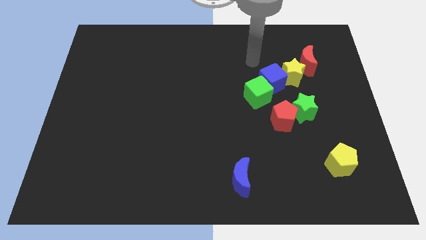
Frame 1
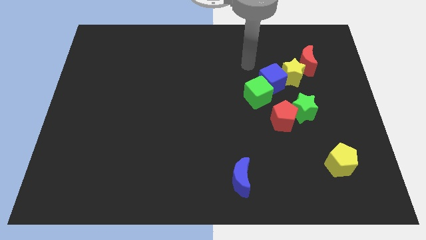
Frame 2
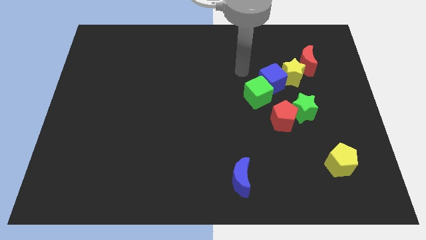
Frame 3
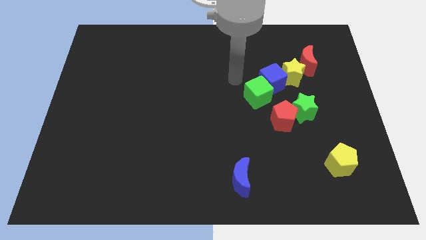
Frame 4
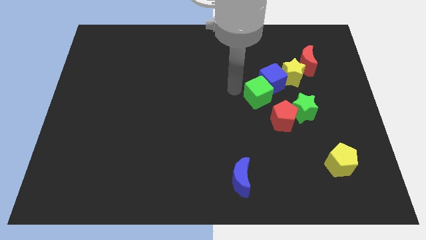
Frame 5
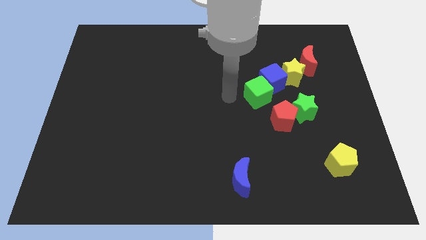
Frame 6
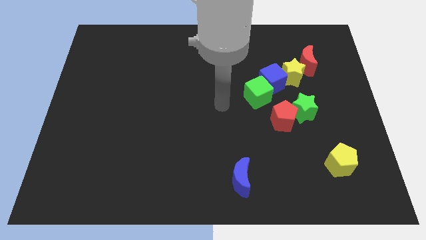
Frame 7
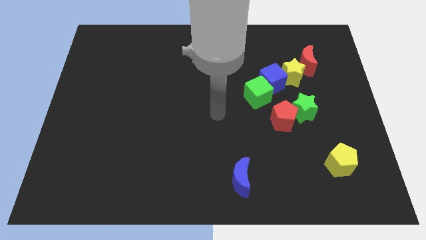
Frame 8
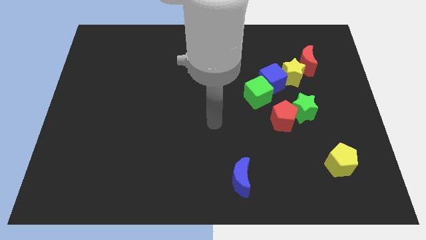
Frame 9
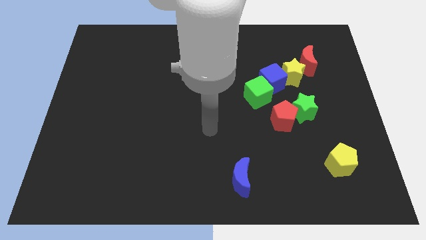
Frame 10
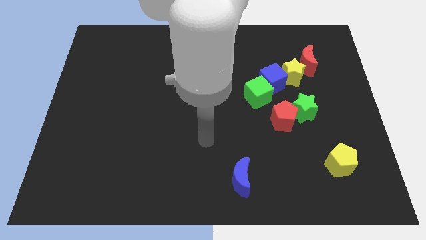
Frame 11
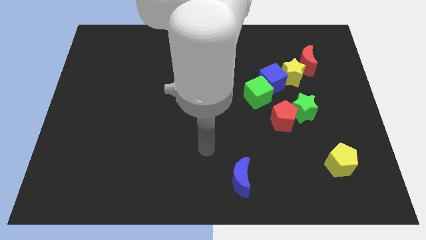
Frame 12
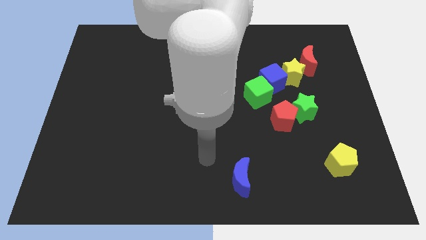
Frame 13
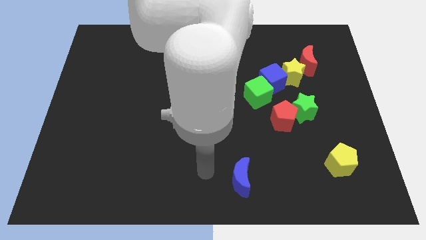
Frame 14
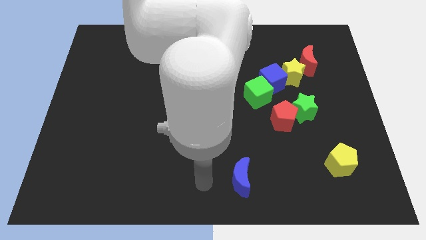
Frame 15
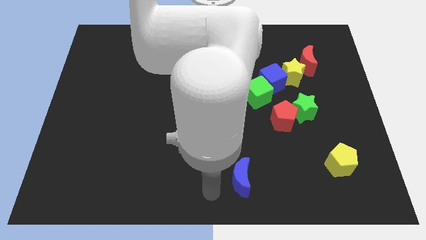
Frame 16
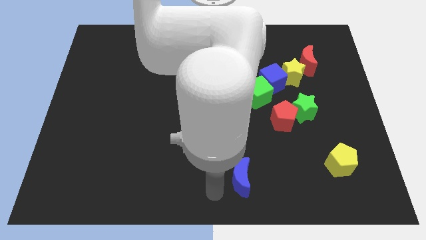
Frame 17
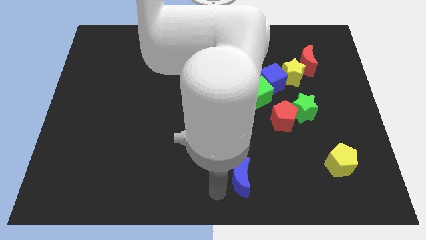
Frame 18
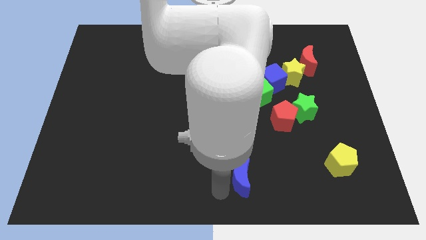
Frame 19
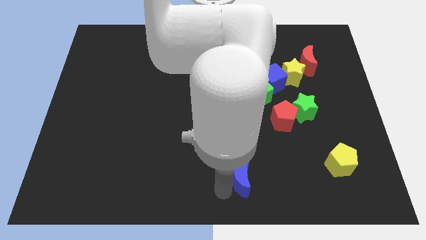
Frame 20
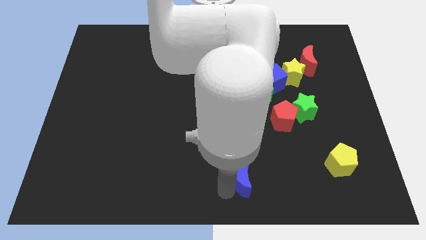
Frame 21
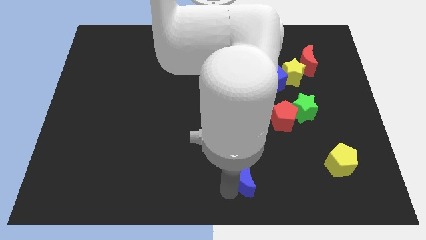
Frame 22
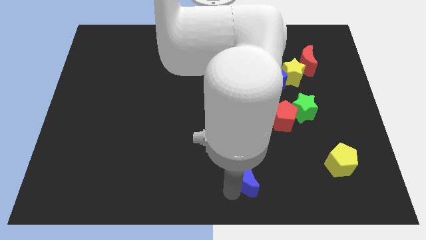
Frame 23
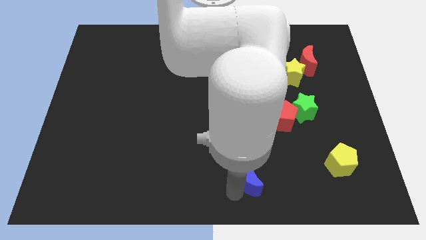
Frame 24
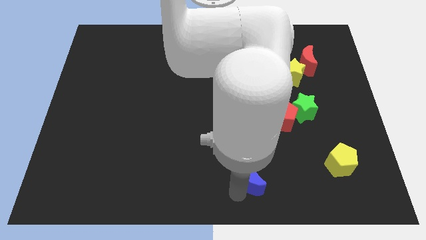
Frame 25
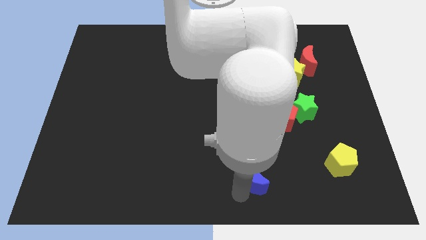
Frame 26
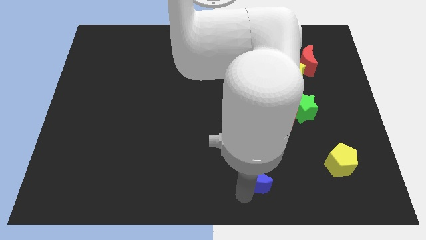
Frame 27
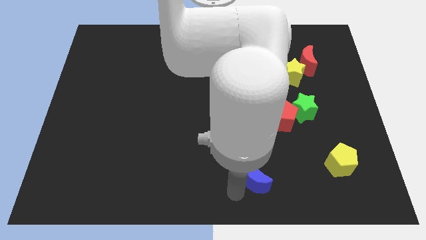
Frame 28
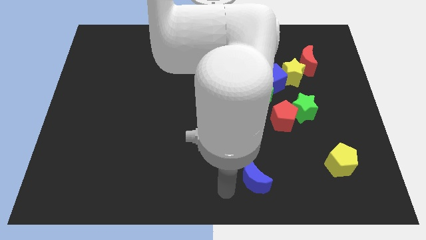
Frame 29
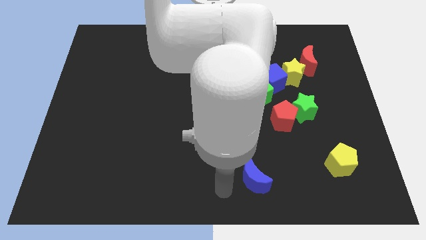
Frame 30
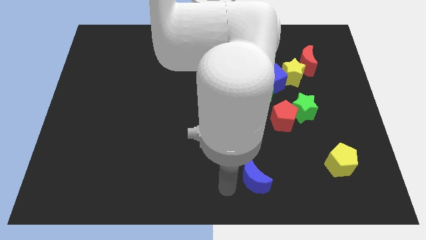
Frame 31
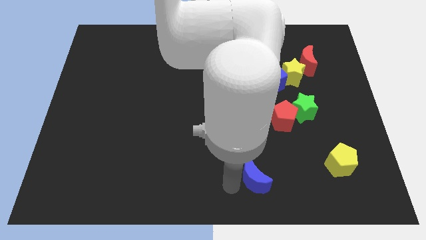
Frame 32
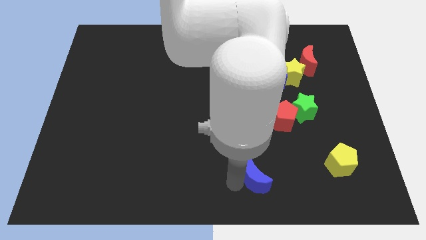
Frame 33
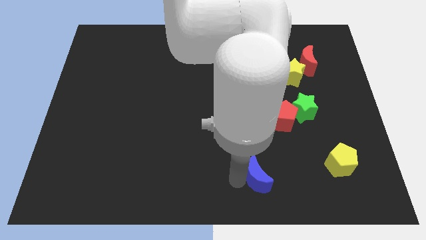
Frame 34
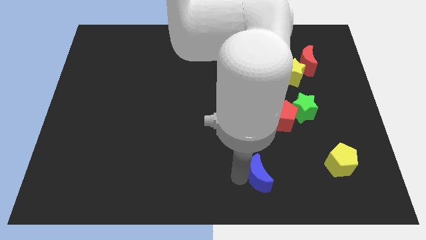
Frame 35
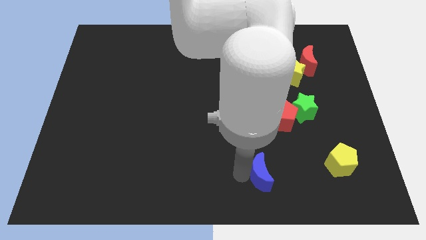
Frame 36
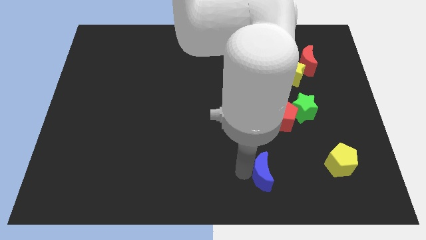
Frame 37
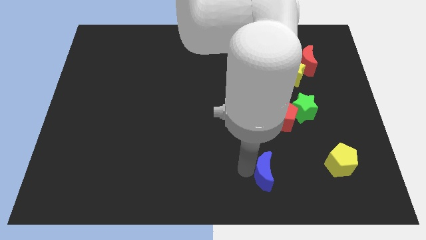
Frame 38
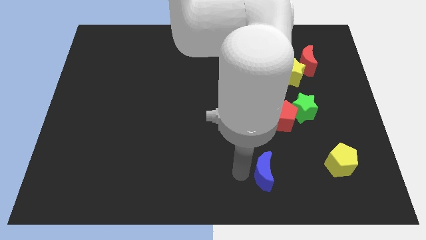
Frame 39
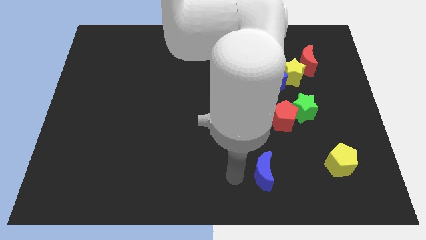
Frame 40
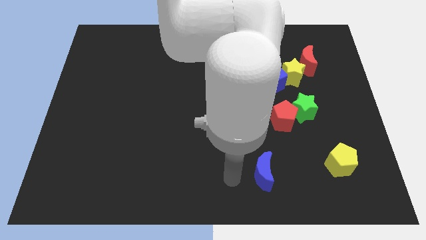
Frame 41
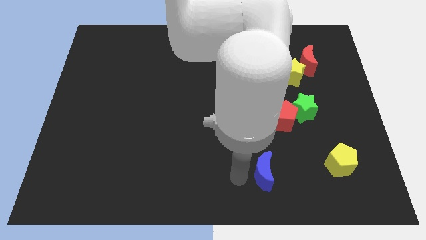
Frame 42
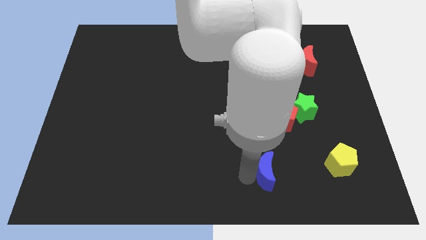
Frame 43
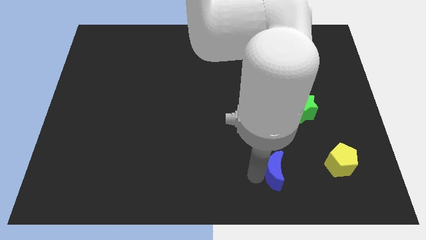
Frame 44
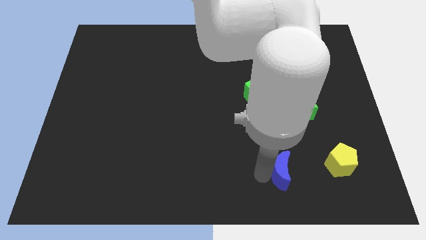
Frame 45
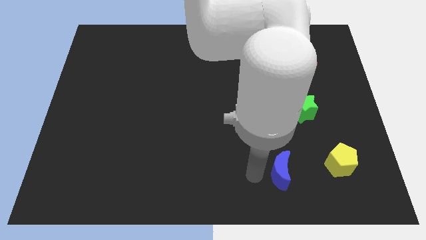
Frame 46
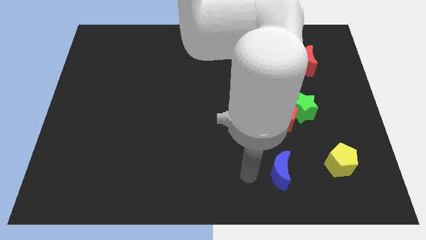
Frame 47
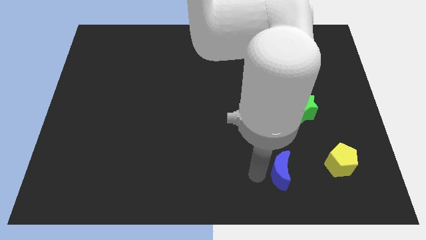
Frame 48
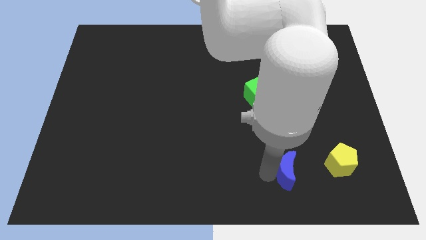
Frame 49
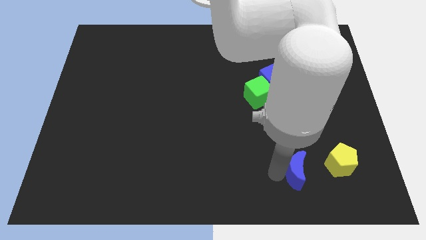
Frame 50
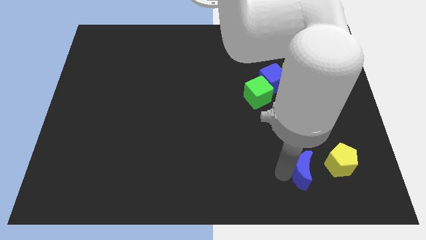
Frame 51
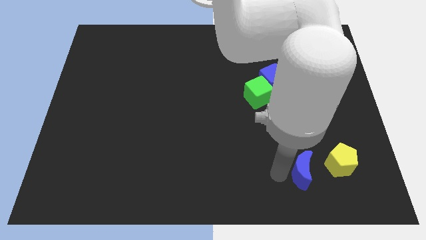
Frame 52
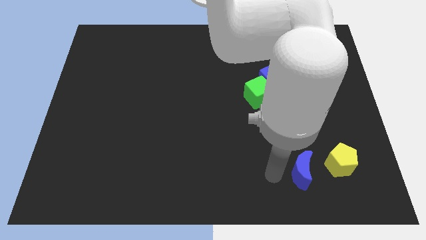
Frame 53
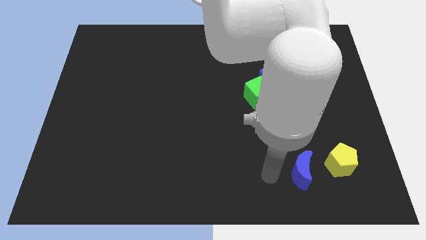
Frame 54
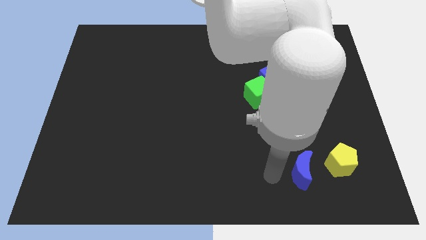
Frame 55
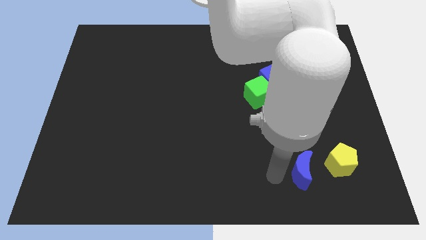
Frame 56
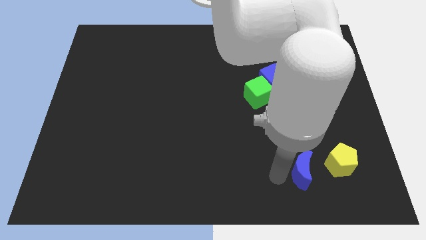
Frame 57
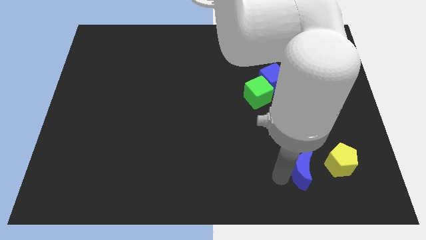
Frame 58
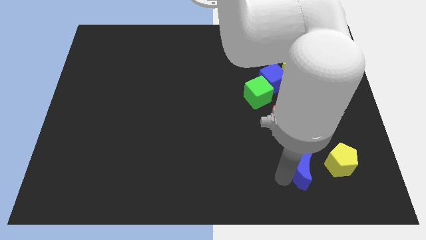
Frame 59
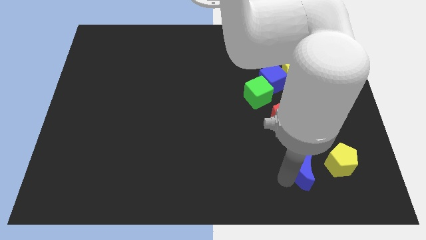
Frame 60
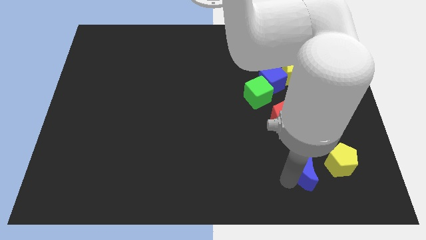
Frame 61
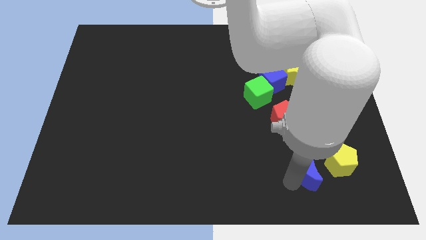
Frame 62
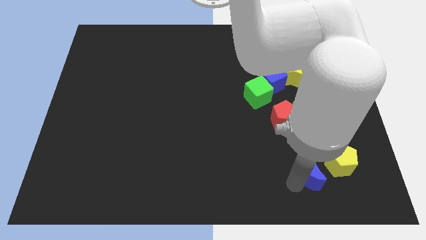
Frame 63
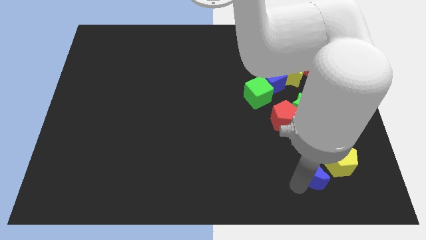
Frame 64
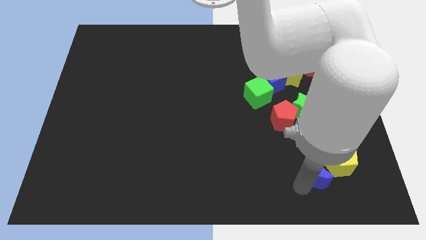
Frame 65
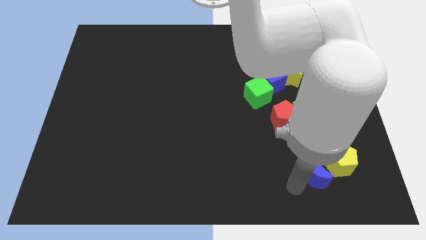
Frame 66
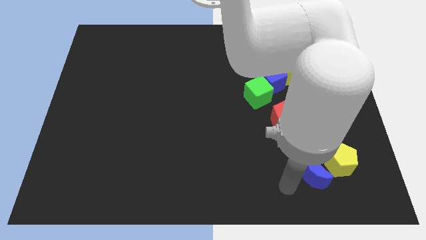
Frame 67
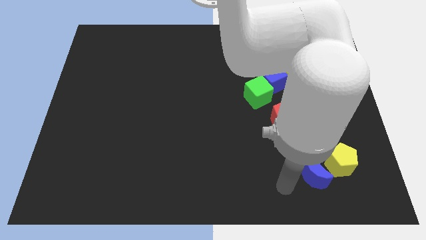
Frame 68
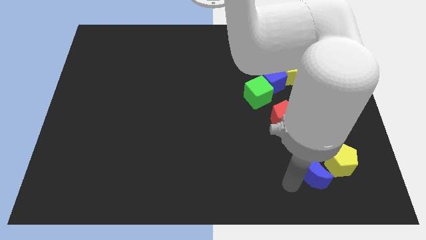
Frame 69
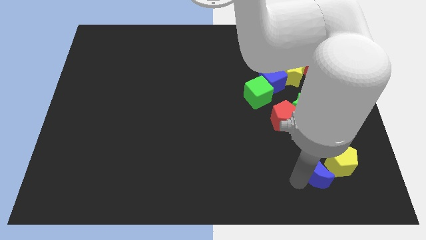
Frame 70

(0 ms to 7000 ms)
put the blue moon towards the yellow pentagon
